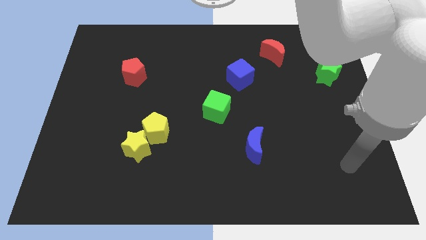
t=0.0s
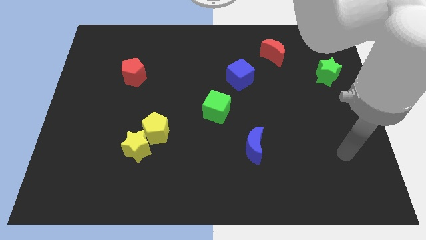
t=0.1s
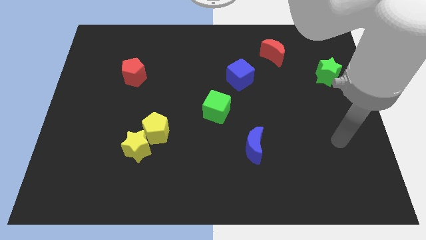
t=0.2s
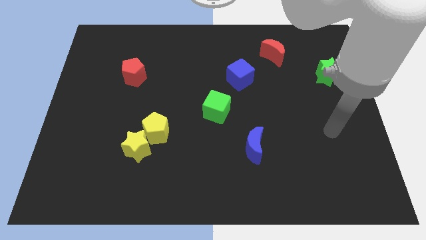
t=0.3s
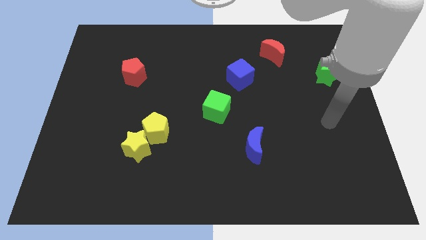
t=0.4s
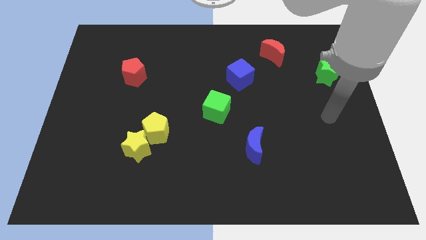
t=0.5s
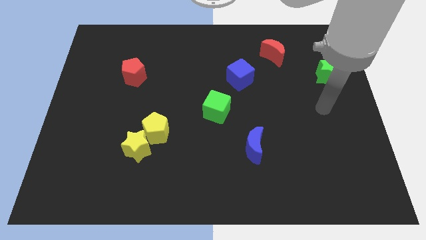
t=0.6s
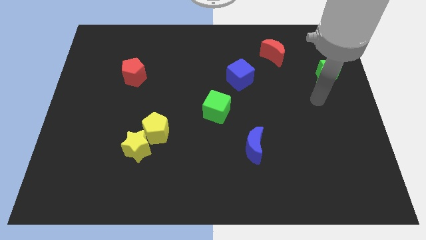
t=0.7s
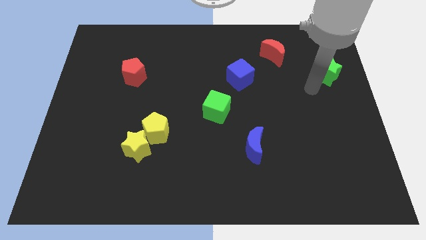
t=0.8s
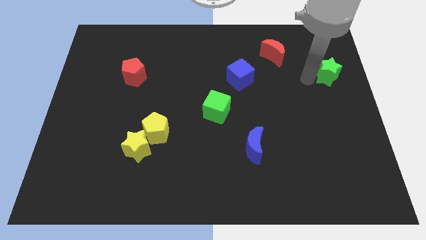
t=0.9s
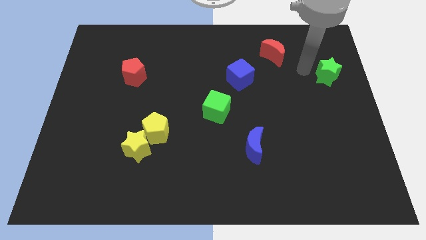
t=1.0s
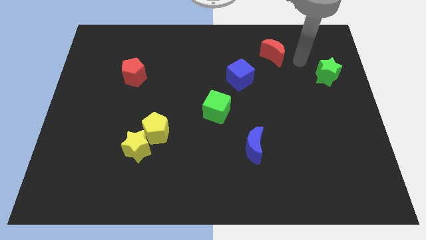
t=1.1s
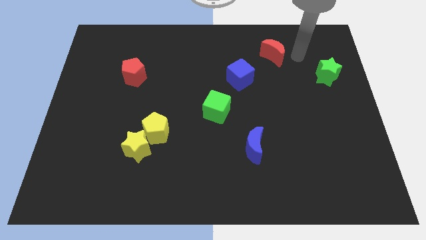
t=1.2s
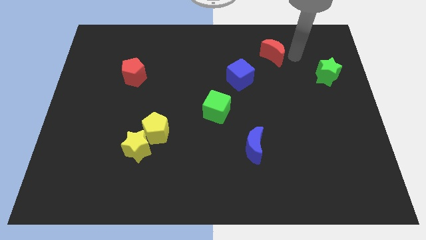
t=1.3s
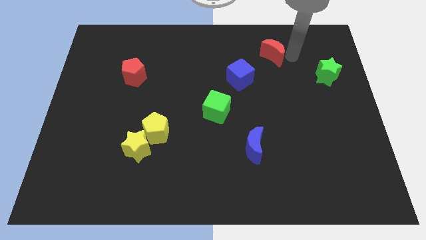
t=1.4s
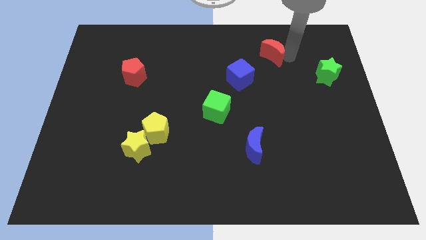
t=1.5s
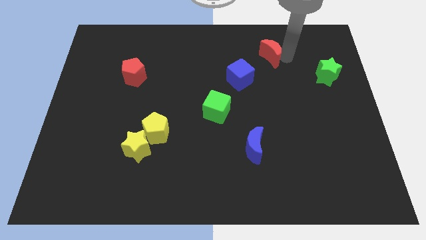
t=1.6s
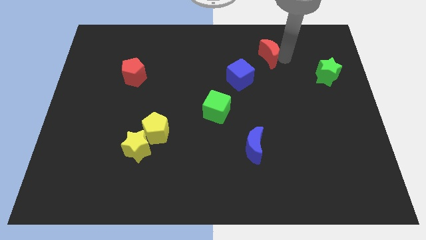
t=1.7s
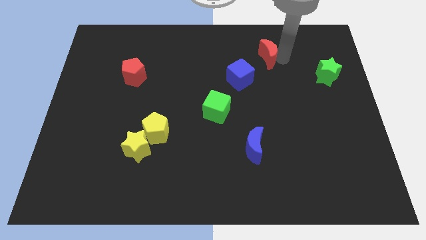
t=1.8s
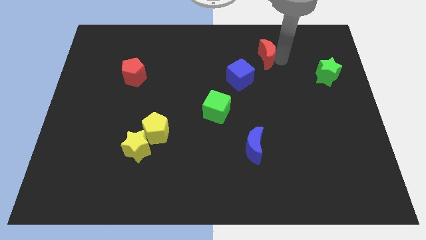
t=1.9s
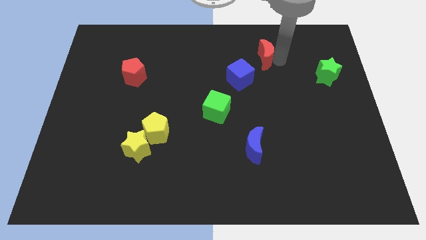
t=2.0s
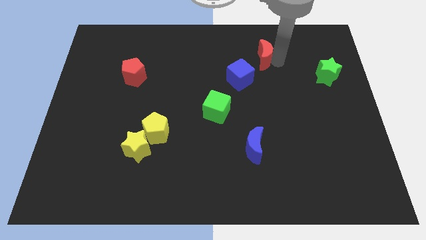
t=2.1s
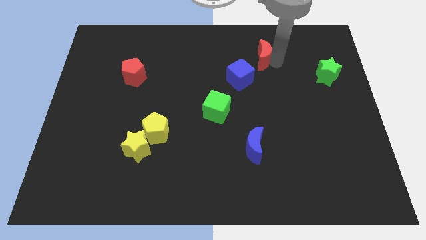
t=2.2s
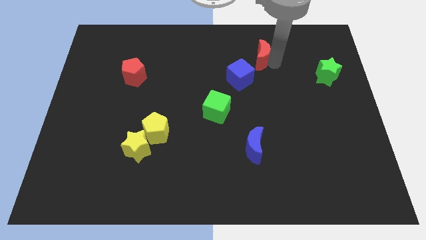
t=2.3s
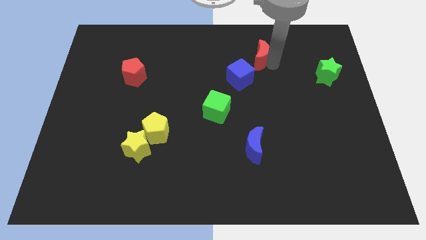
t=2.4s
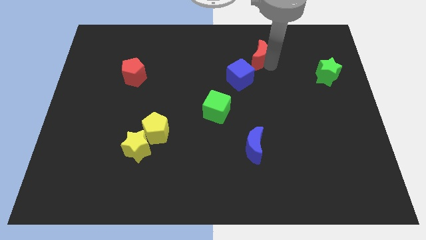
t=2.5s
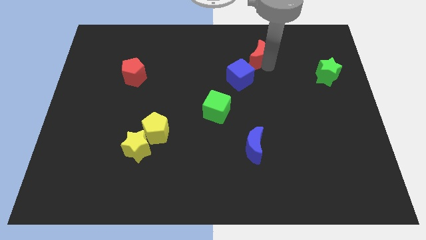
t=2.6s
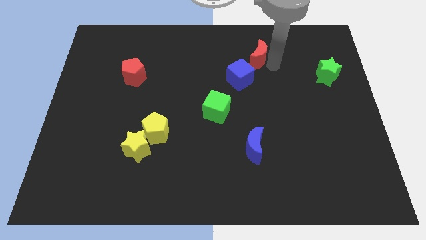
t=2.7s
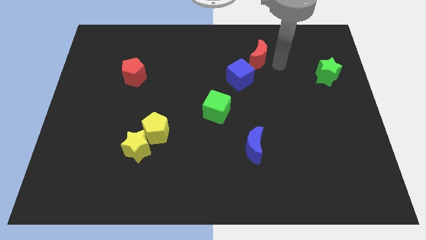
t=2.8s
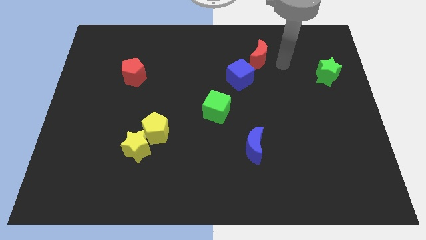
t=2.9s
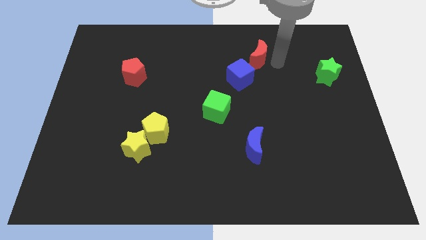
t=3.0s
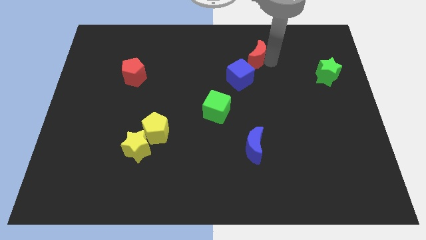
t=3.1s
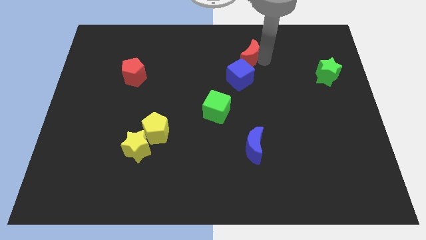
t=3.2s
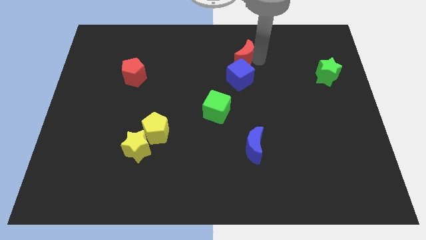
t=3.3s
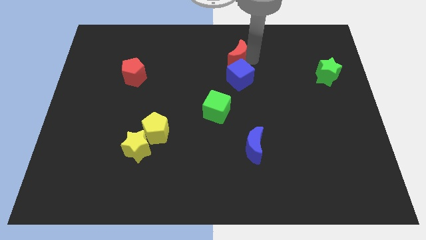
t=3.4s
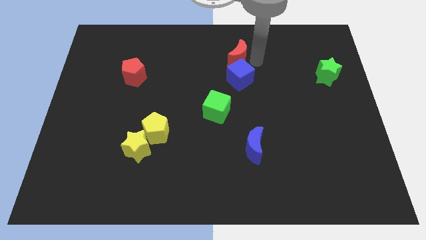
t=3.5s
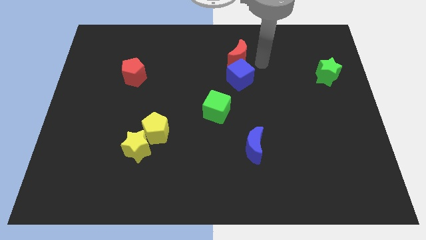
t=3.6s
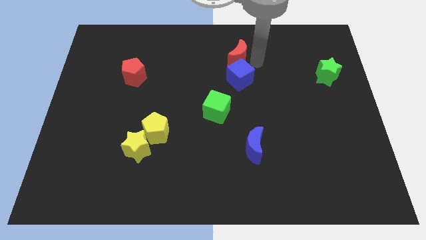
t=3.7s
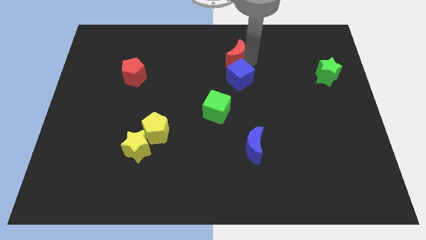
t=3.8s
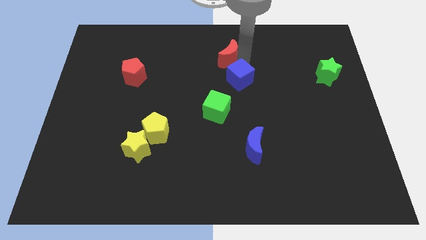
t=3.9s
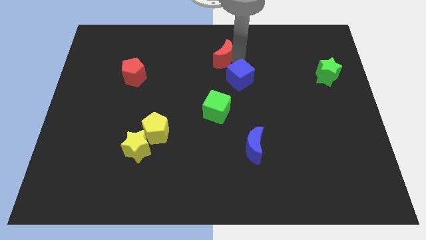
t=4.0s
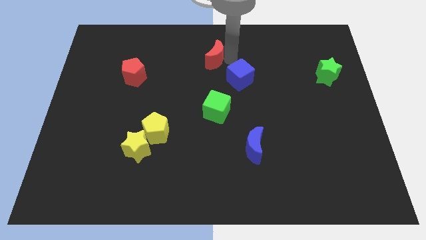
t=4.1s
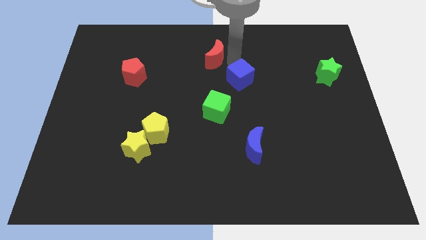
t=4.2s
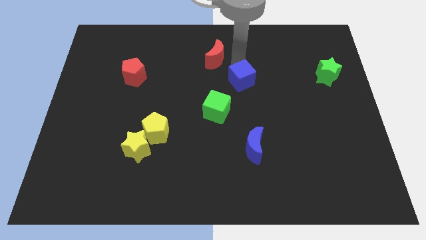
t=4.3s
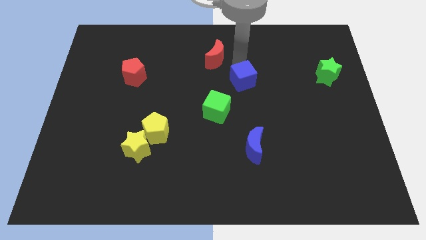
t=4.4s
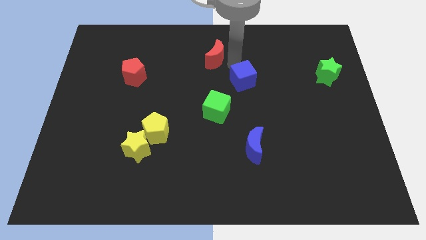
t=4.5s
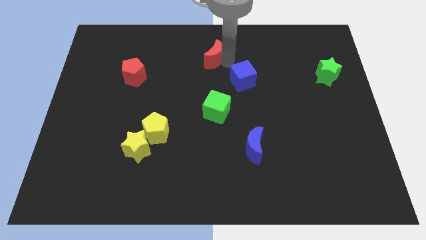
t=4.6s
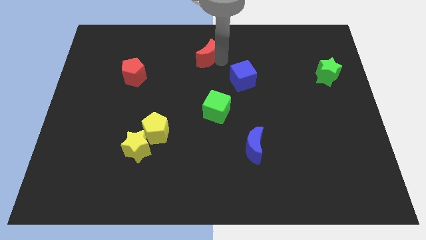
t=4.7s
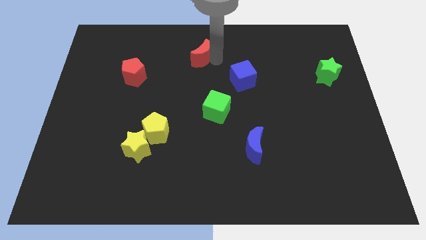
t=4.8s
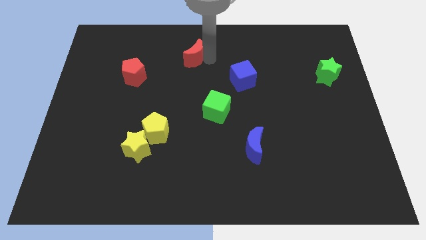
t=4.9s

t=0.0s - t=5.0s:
move the red moon to the left

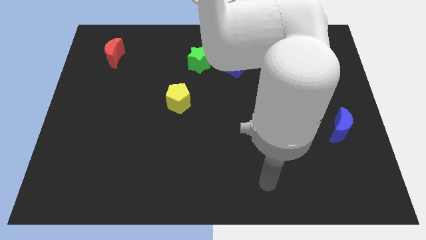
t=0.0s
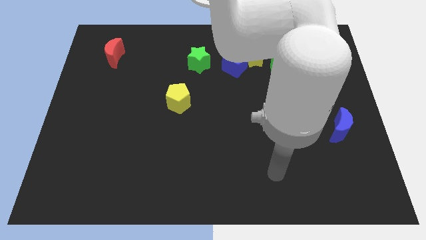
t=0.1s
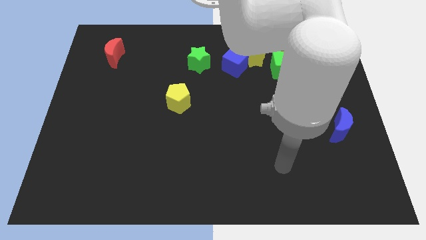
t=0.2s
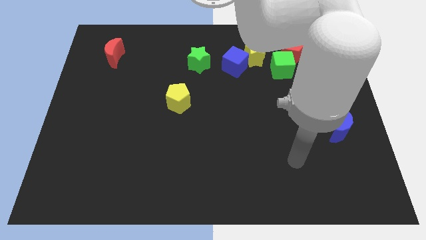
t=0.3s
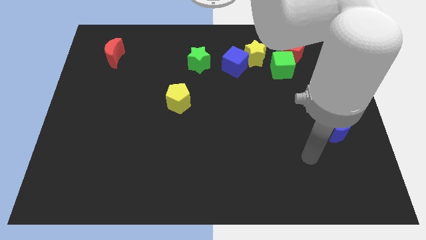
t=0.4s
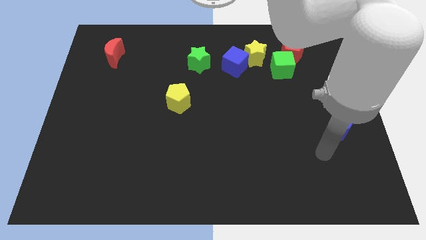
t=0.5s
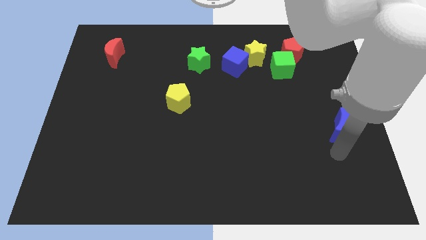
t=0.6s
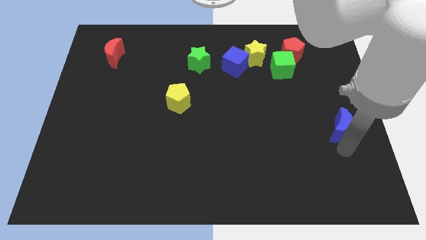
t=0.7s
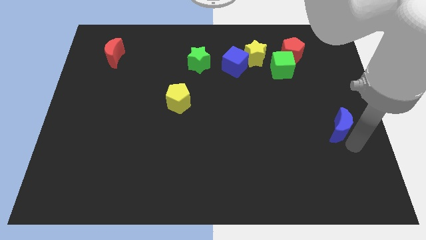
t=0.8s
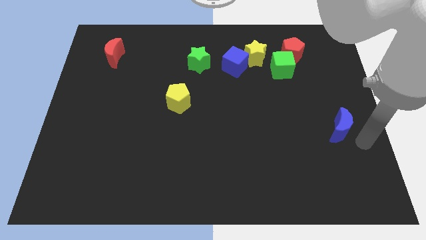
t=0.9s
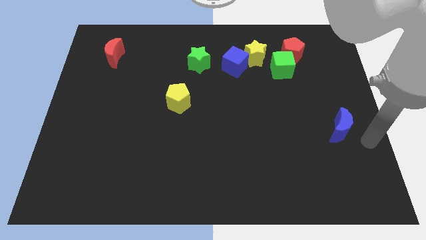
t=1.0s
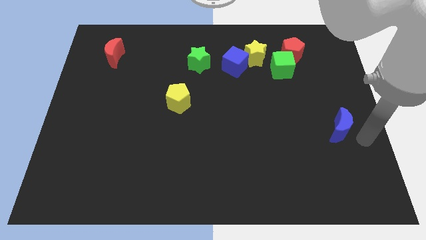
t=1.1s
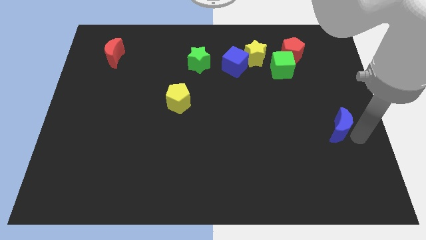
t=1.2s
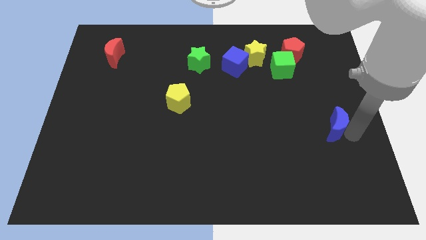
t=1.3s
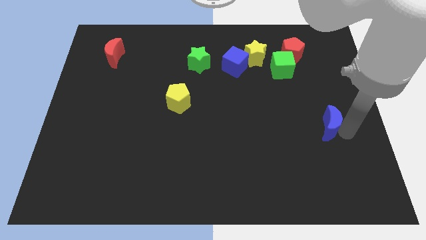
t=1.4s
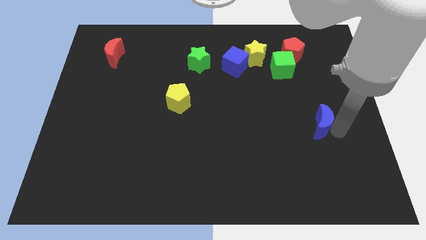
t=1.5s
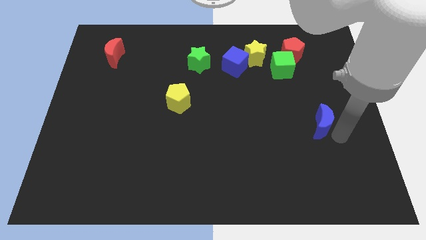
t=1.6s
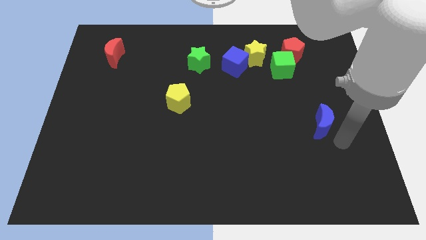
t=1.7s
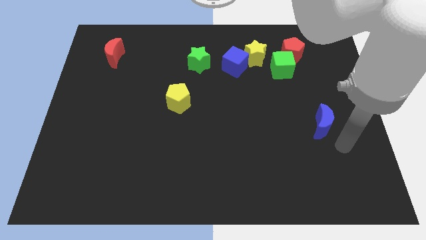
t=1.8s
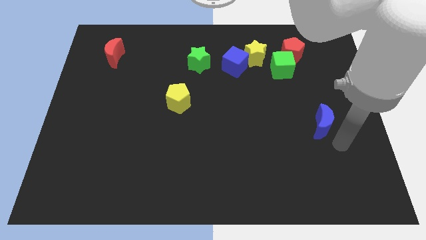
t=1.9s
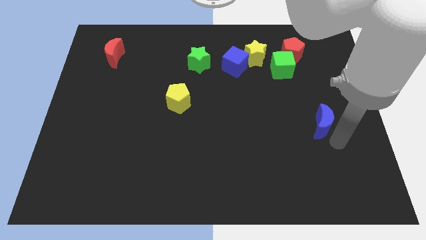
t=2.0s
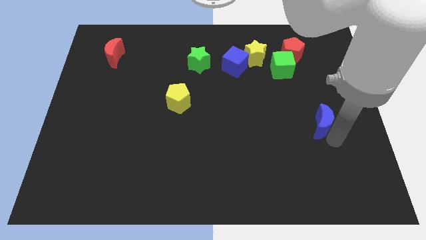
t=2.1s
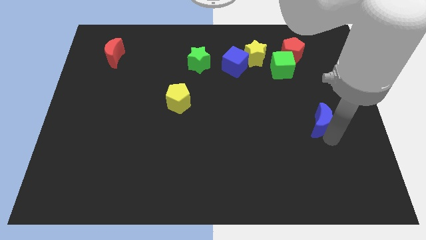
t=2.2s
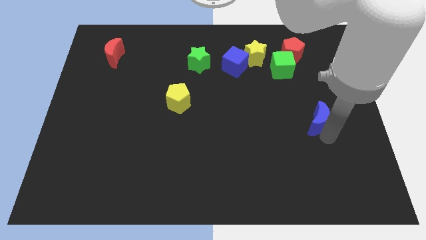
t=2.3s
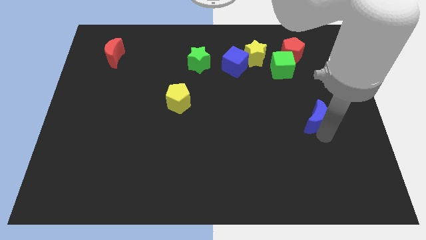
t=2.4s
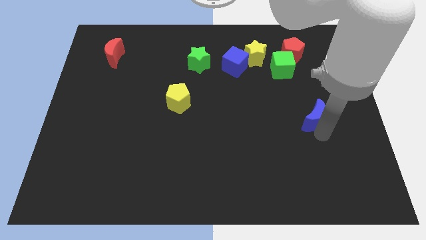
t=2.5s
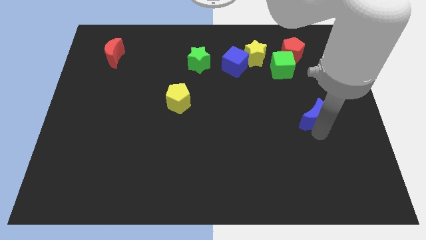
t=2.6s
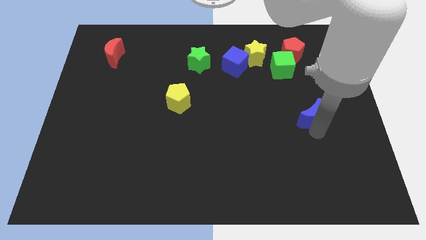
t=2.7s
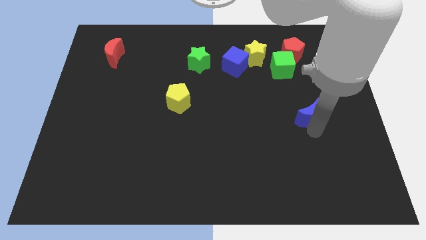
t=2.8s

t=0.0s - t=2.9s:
push the blue moon somewhat diagonally upwards and to the left

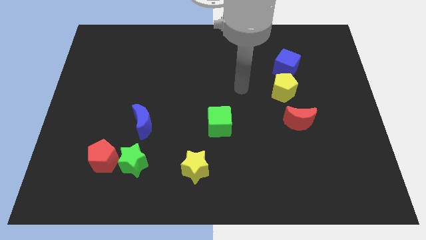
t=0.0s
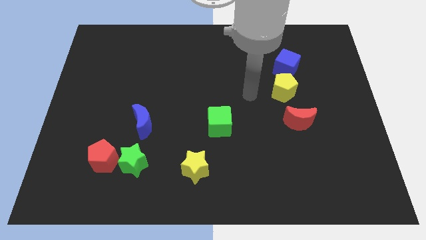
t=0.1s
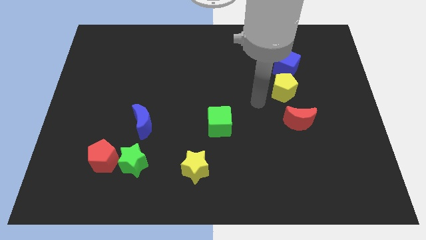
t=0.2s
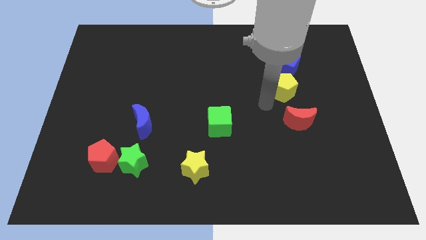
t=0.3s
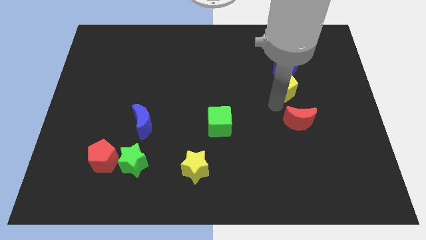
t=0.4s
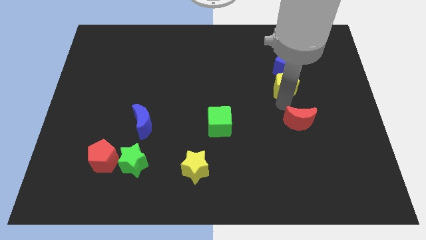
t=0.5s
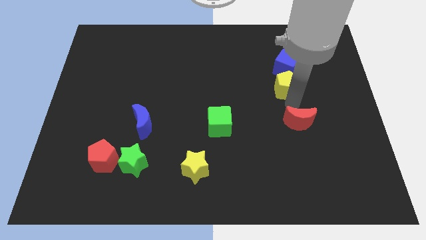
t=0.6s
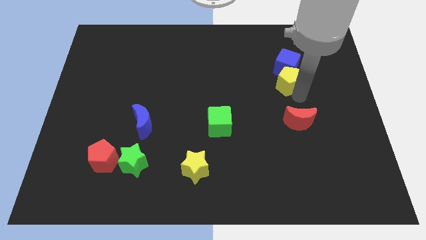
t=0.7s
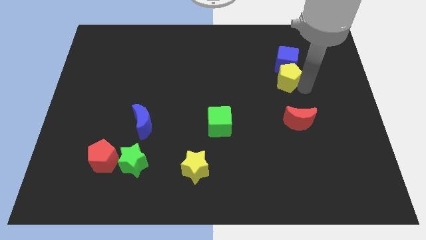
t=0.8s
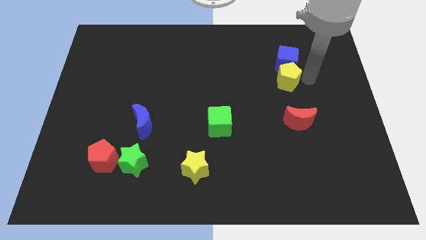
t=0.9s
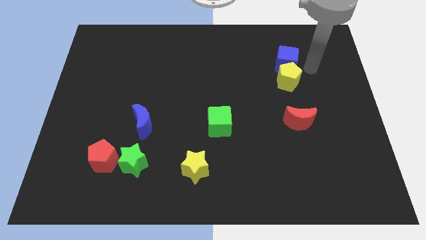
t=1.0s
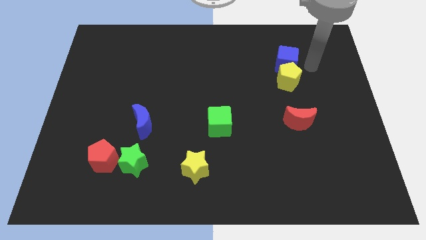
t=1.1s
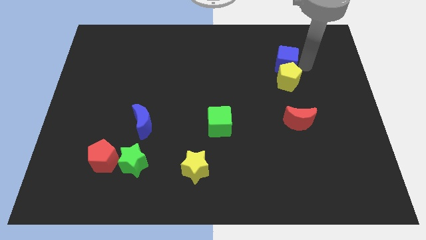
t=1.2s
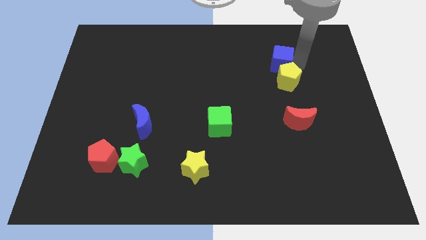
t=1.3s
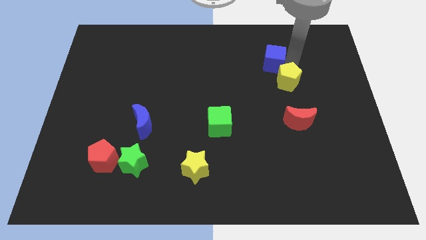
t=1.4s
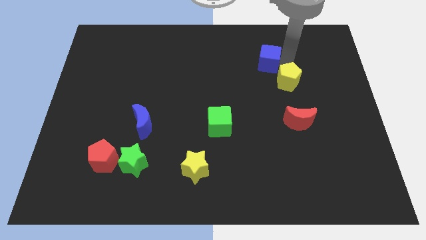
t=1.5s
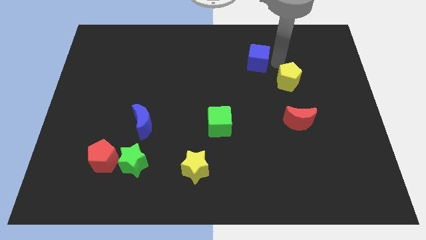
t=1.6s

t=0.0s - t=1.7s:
slide the blue cube a little bit left
